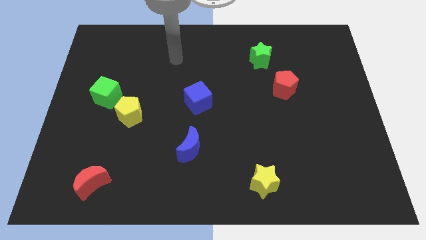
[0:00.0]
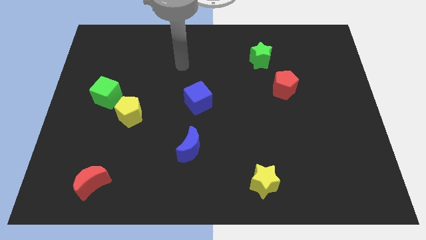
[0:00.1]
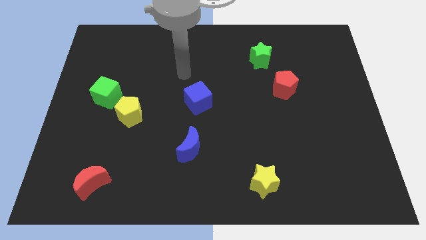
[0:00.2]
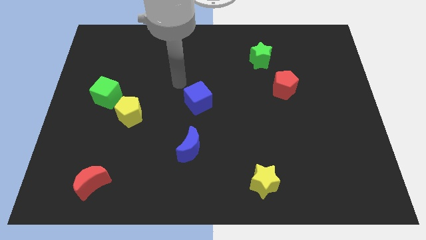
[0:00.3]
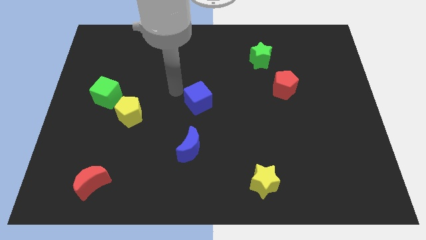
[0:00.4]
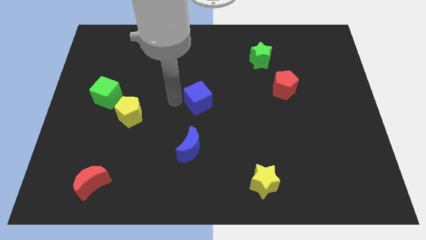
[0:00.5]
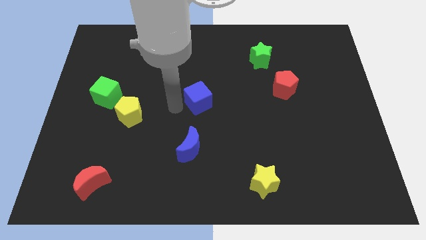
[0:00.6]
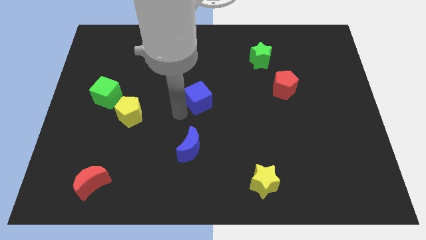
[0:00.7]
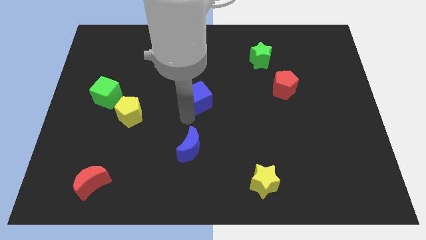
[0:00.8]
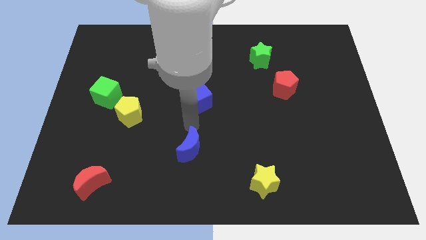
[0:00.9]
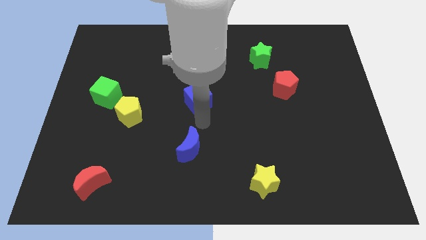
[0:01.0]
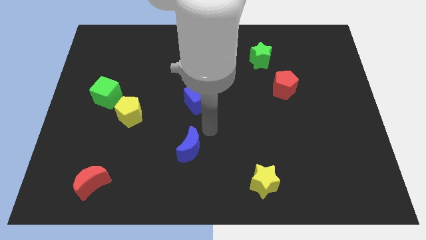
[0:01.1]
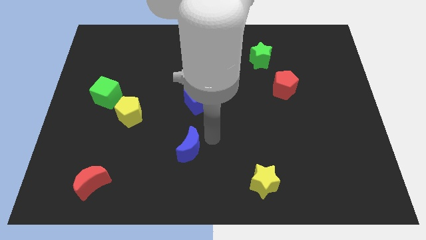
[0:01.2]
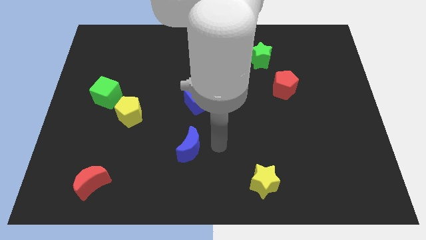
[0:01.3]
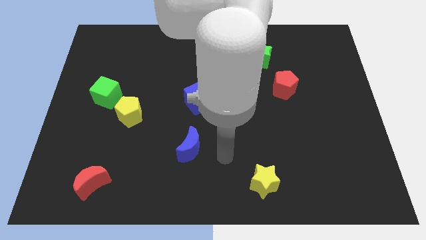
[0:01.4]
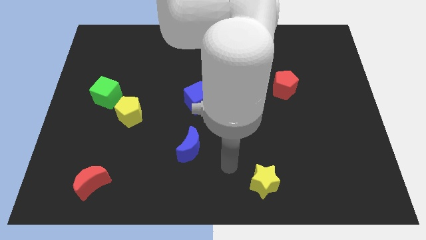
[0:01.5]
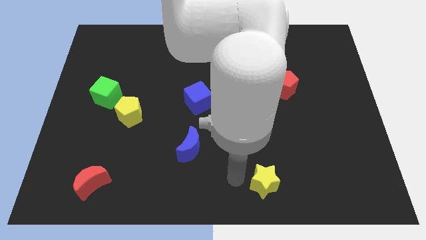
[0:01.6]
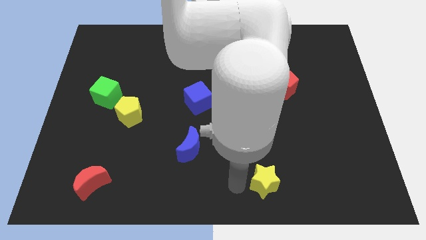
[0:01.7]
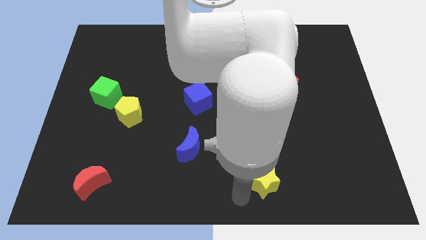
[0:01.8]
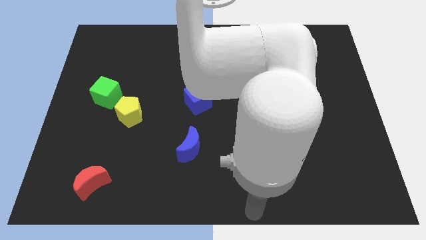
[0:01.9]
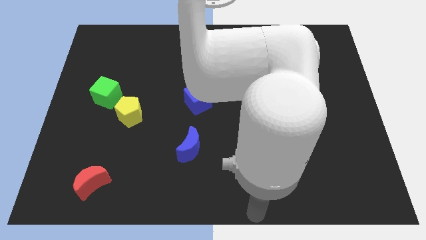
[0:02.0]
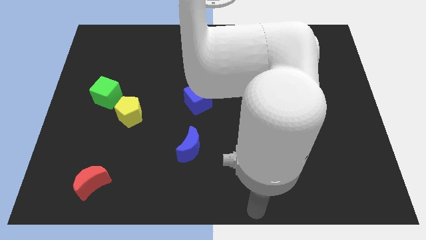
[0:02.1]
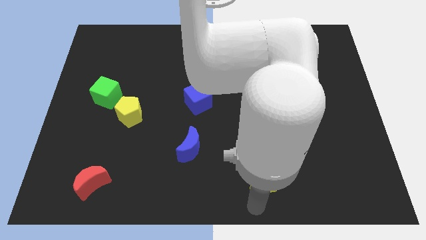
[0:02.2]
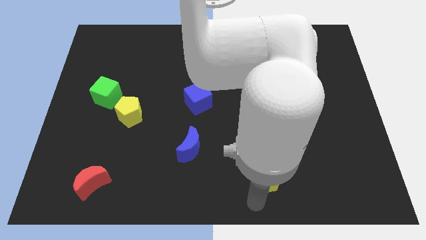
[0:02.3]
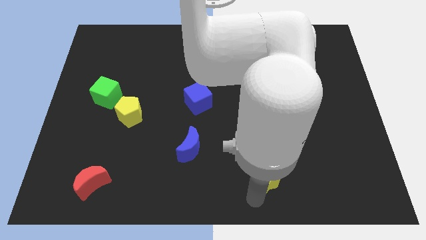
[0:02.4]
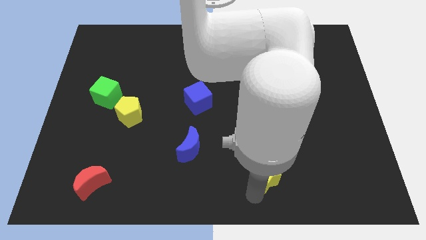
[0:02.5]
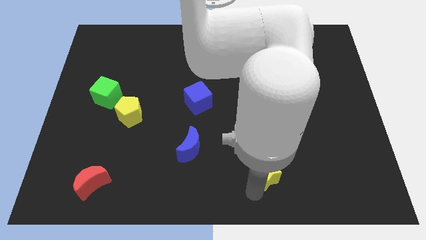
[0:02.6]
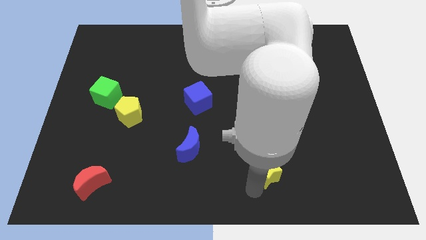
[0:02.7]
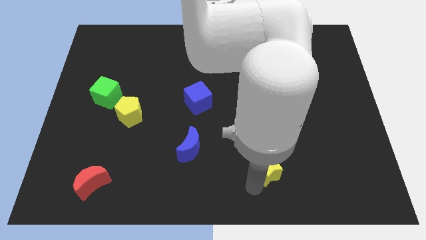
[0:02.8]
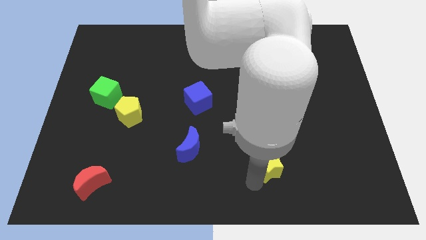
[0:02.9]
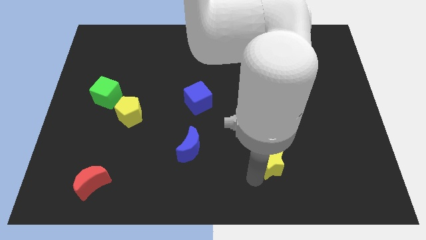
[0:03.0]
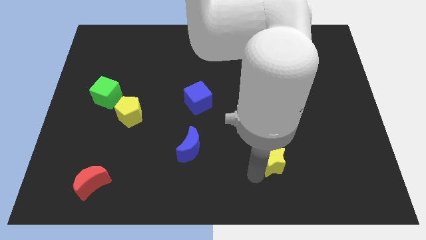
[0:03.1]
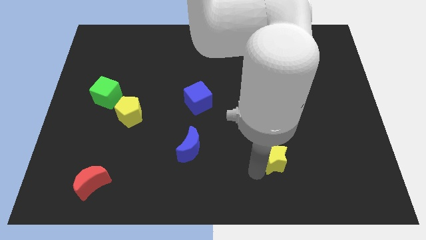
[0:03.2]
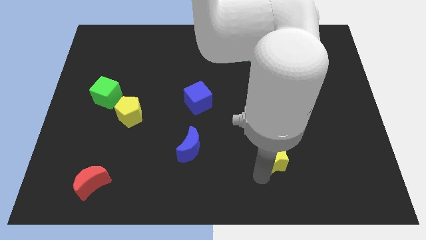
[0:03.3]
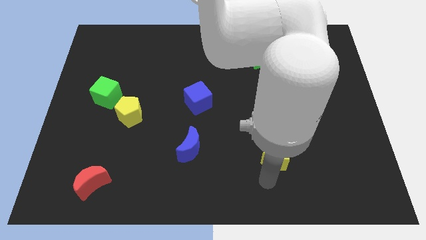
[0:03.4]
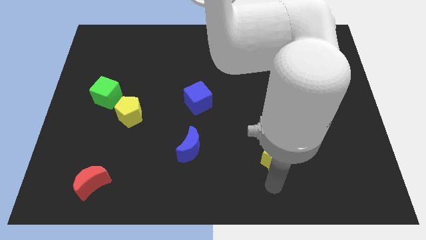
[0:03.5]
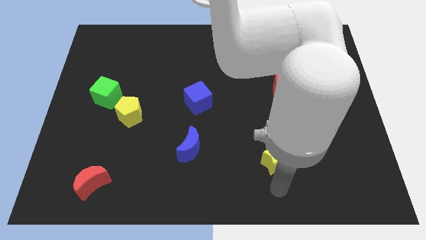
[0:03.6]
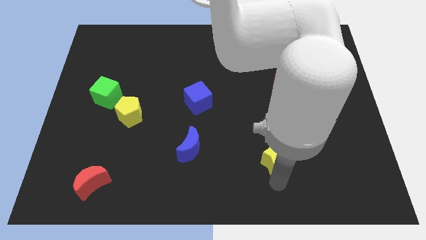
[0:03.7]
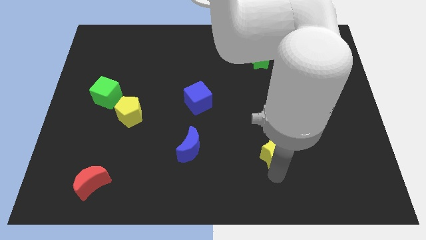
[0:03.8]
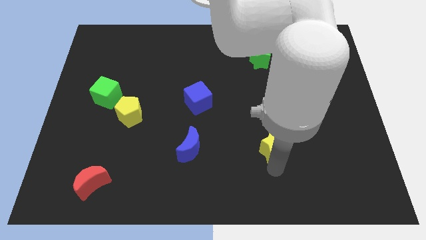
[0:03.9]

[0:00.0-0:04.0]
move the yellow star upwards a little bit

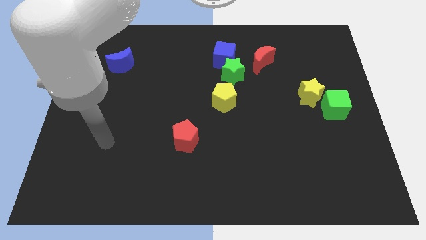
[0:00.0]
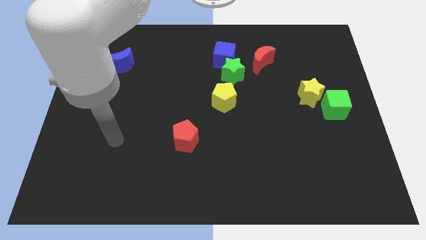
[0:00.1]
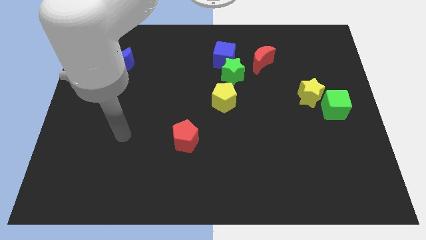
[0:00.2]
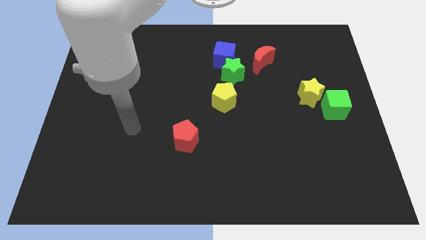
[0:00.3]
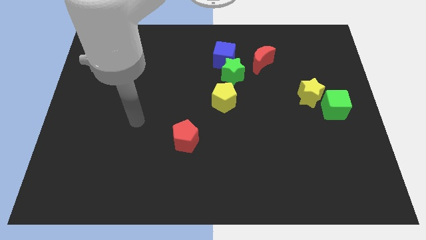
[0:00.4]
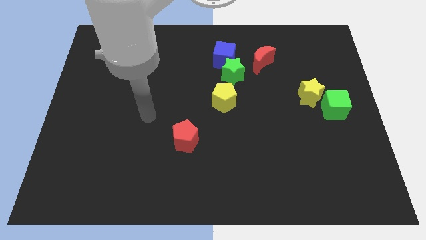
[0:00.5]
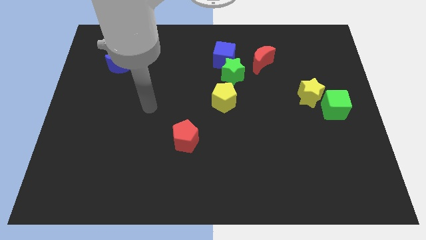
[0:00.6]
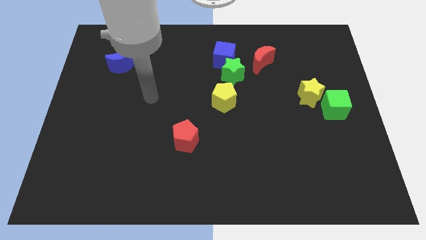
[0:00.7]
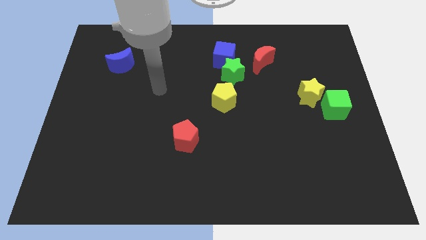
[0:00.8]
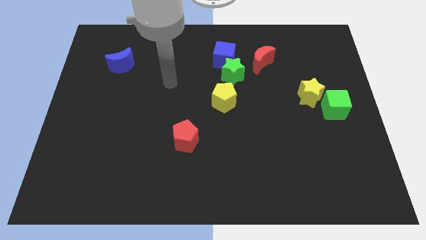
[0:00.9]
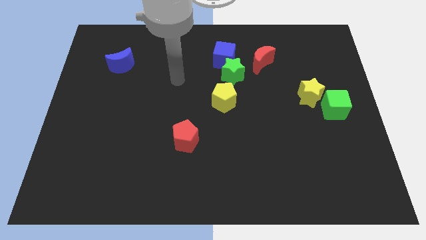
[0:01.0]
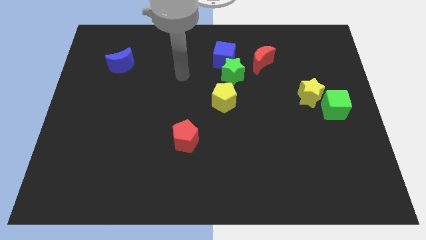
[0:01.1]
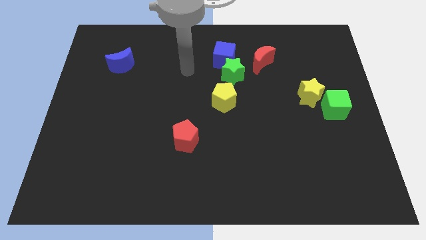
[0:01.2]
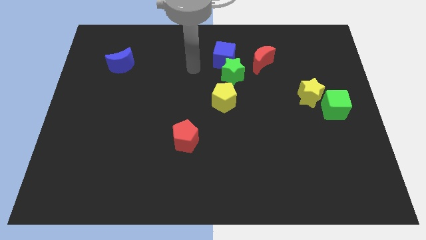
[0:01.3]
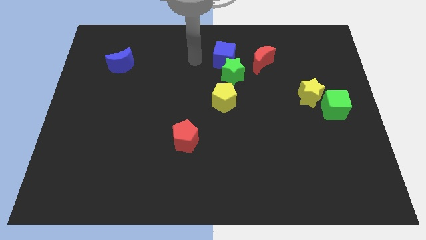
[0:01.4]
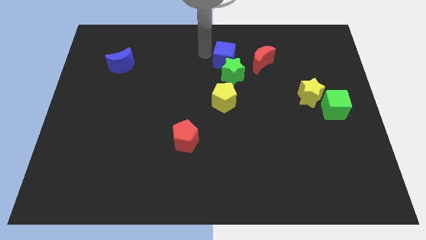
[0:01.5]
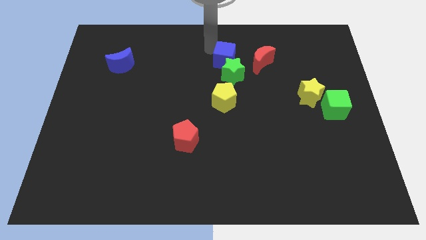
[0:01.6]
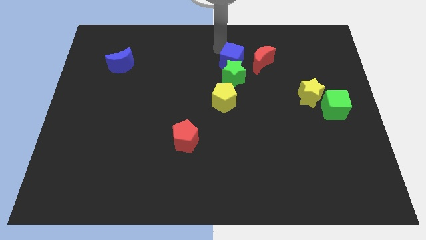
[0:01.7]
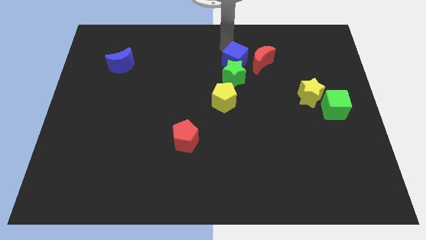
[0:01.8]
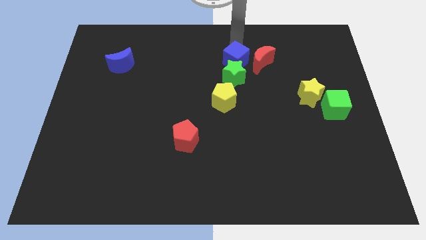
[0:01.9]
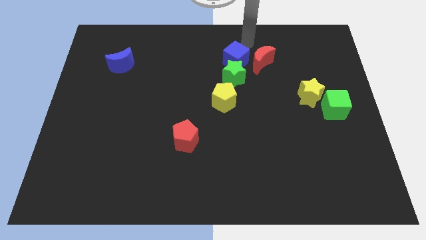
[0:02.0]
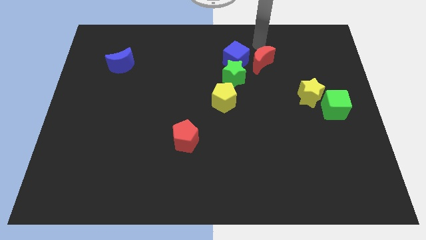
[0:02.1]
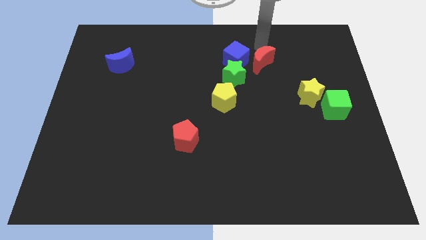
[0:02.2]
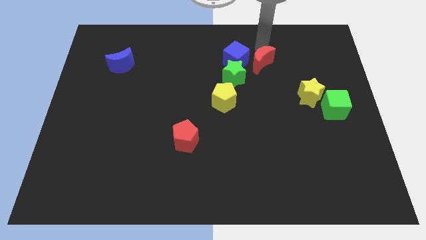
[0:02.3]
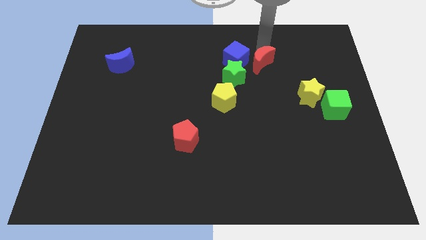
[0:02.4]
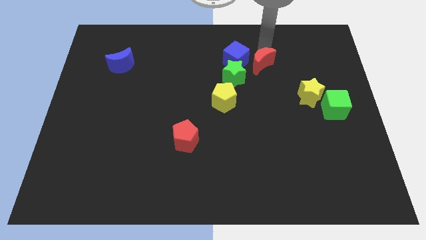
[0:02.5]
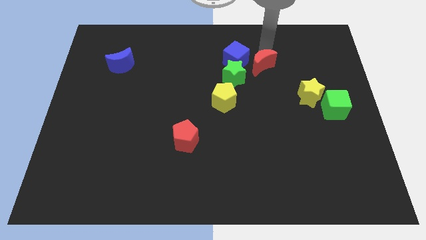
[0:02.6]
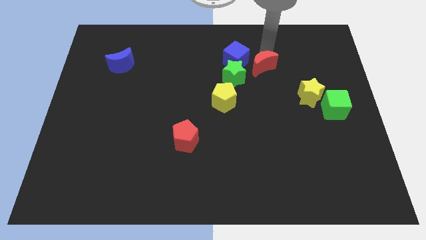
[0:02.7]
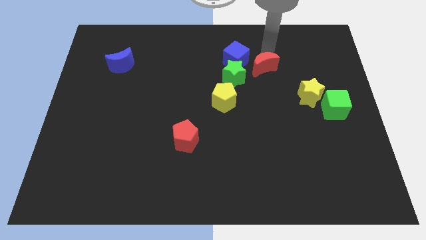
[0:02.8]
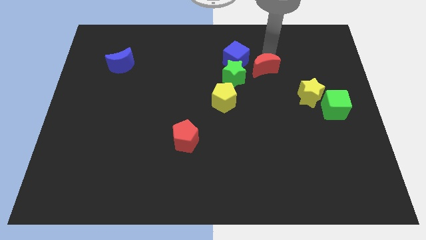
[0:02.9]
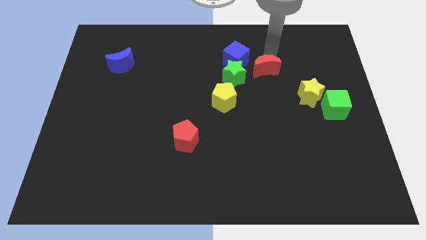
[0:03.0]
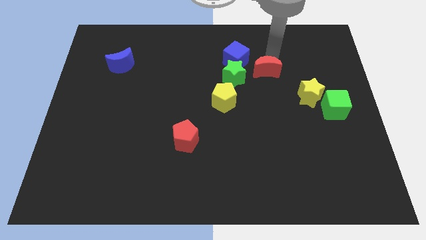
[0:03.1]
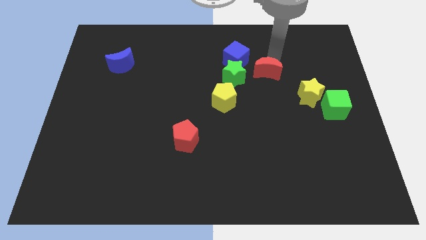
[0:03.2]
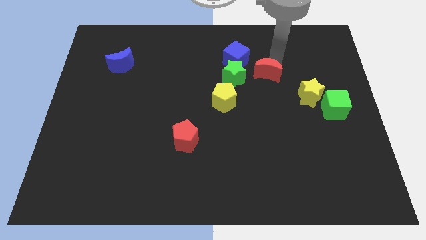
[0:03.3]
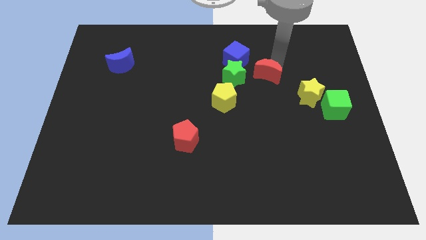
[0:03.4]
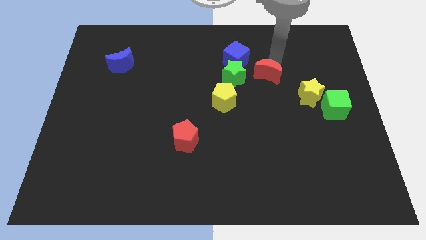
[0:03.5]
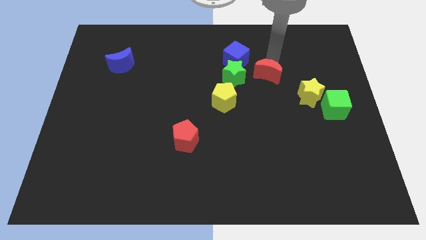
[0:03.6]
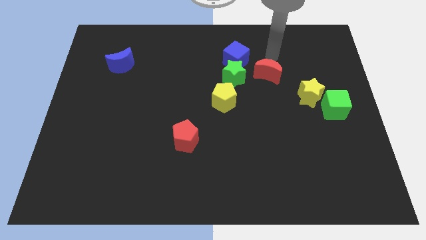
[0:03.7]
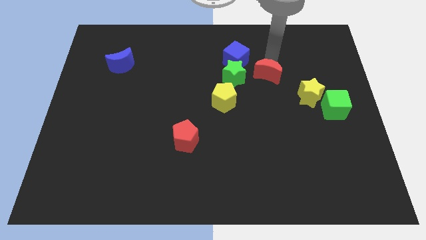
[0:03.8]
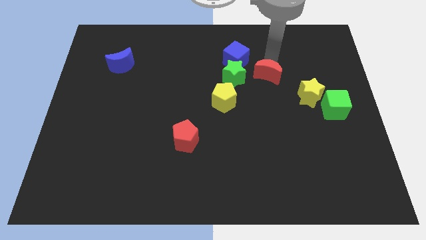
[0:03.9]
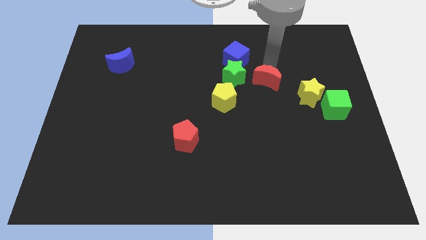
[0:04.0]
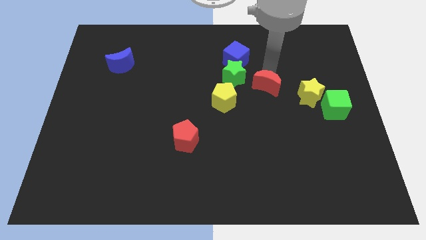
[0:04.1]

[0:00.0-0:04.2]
move the red moon slightly down
